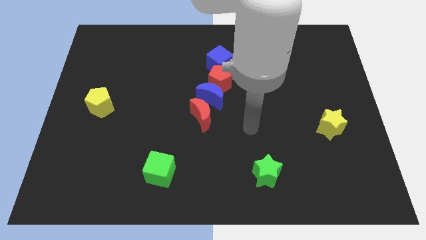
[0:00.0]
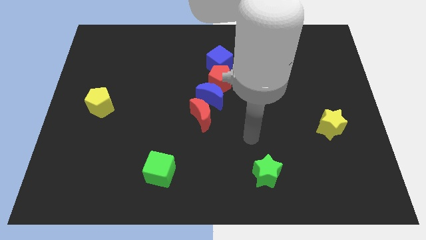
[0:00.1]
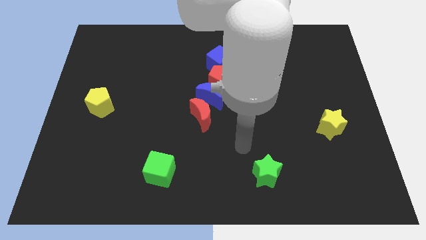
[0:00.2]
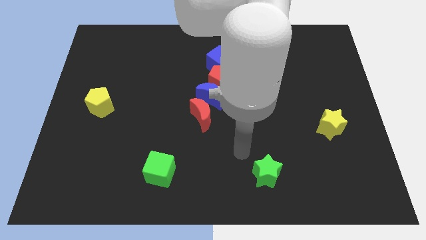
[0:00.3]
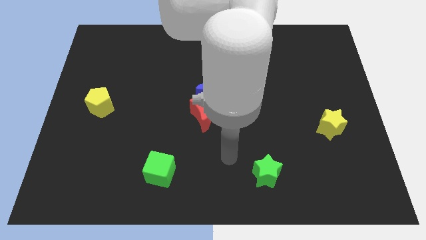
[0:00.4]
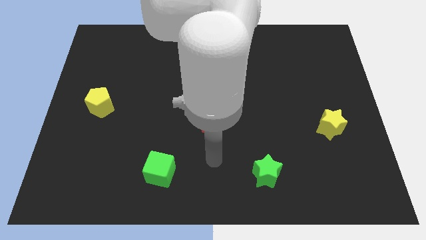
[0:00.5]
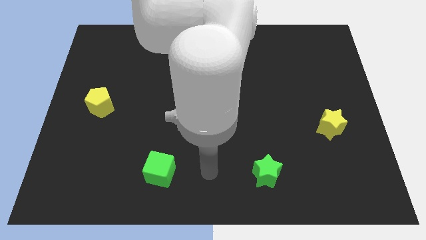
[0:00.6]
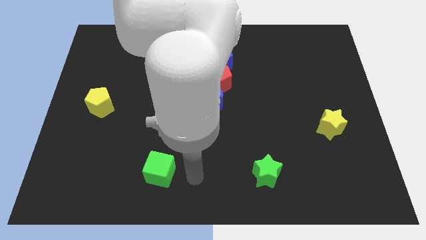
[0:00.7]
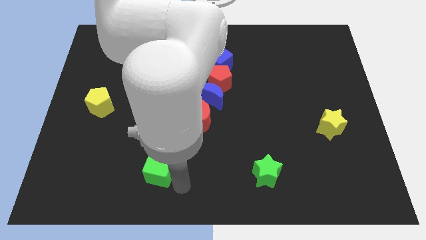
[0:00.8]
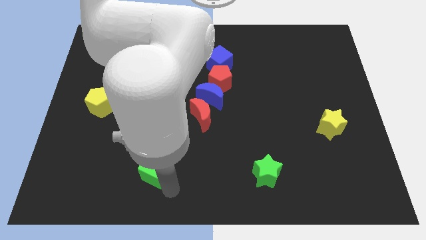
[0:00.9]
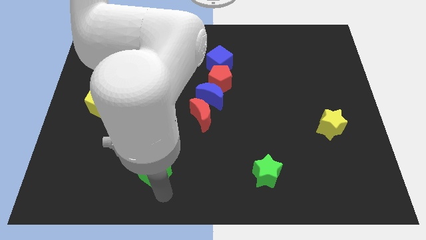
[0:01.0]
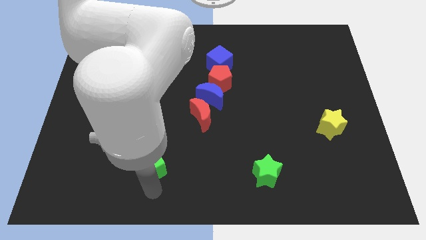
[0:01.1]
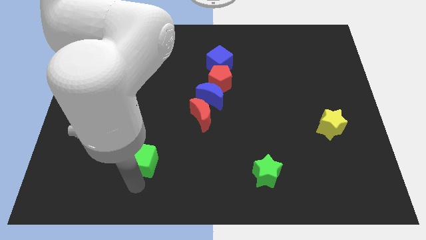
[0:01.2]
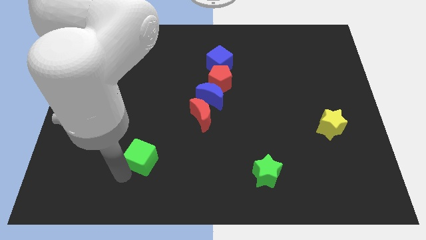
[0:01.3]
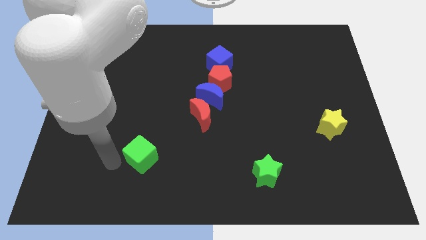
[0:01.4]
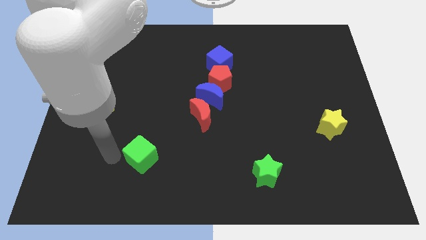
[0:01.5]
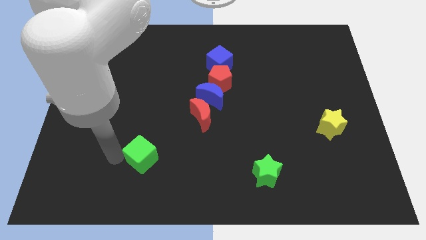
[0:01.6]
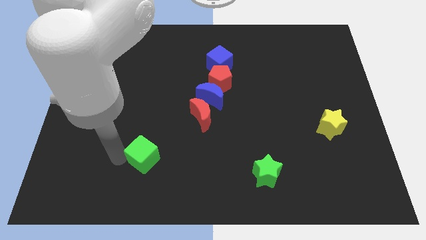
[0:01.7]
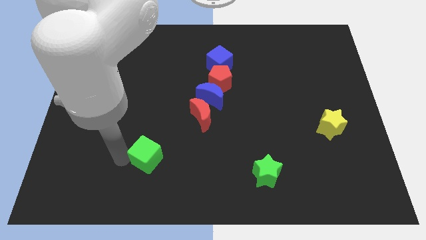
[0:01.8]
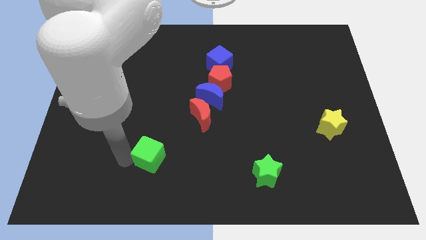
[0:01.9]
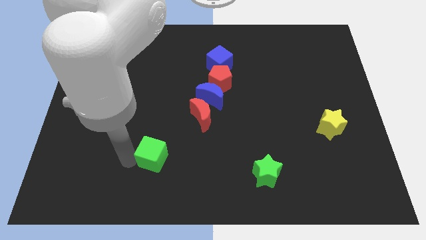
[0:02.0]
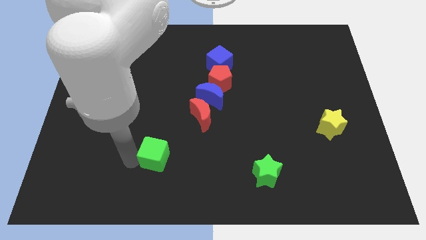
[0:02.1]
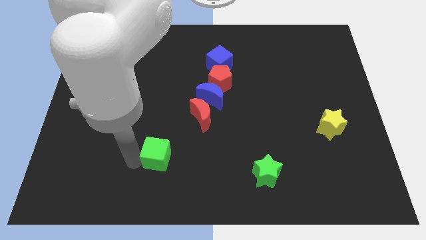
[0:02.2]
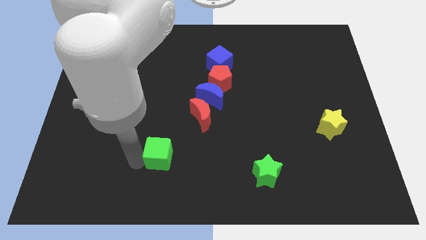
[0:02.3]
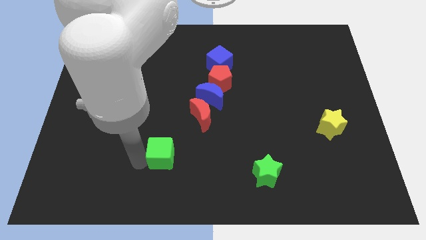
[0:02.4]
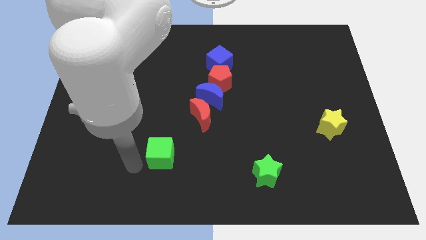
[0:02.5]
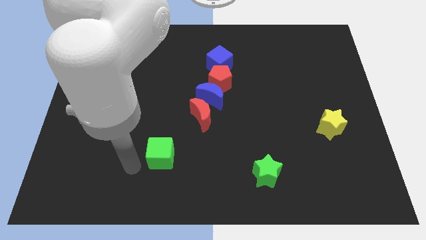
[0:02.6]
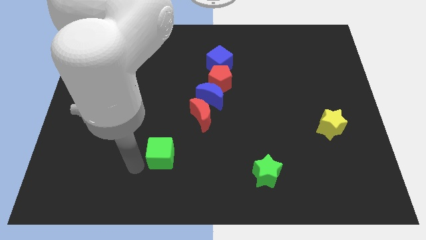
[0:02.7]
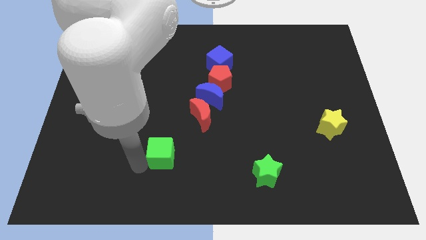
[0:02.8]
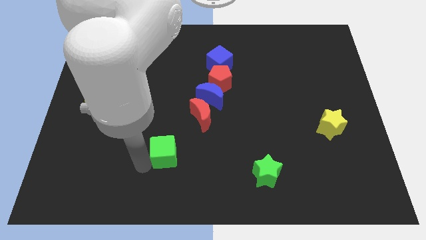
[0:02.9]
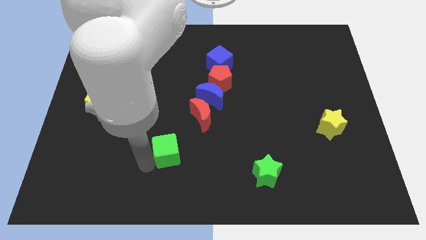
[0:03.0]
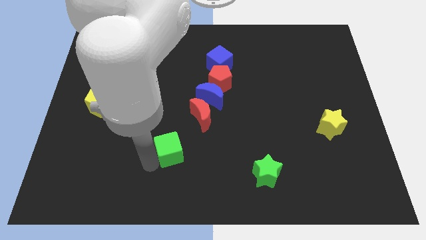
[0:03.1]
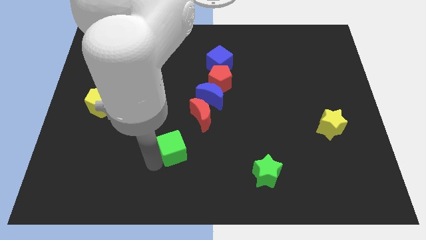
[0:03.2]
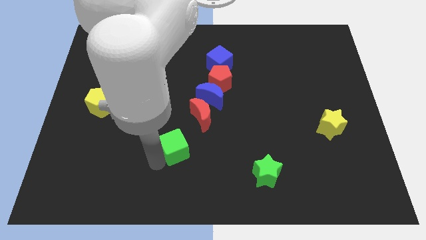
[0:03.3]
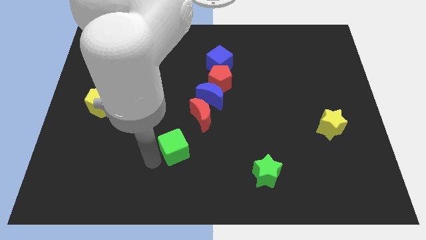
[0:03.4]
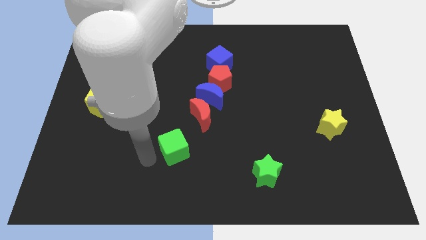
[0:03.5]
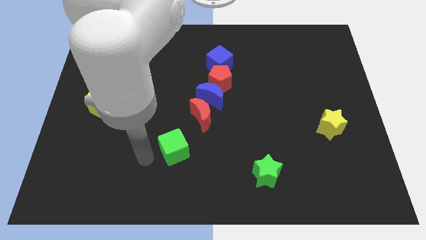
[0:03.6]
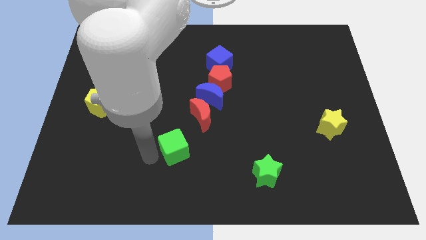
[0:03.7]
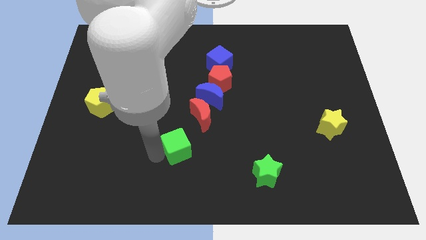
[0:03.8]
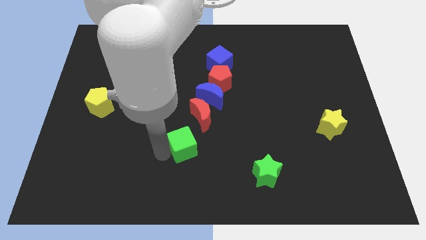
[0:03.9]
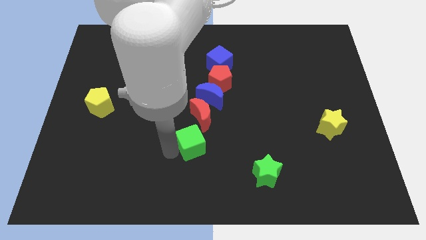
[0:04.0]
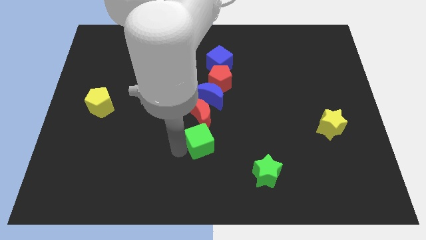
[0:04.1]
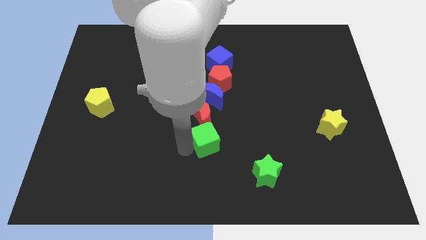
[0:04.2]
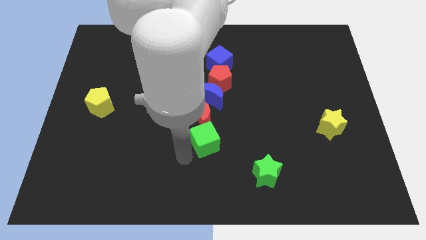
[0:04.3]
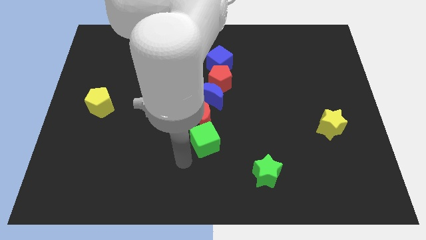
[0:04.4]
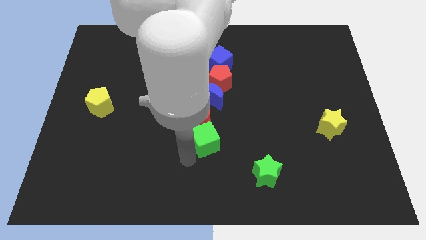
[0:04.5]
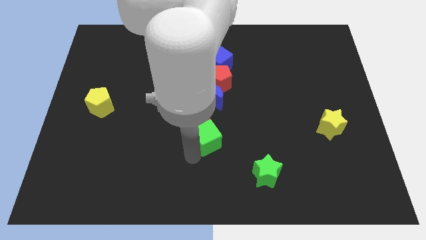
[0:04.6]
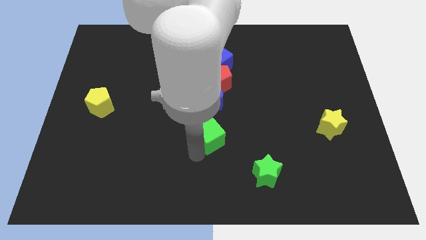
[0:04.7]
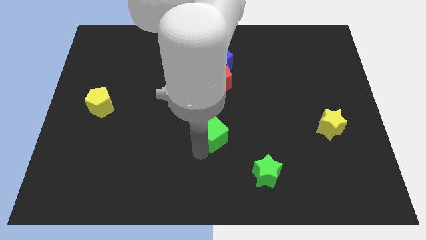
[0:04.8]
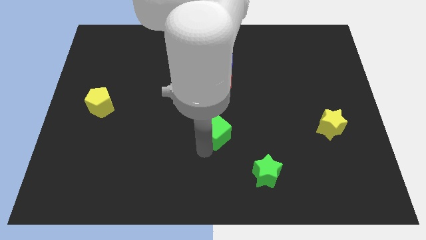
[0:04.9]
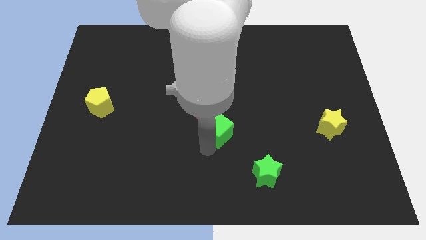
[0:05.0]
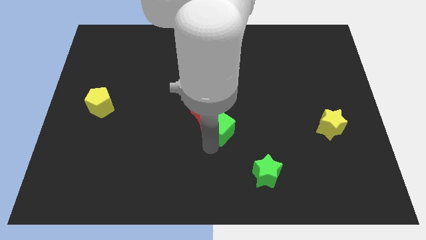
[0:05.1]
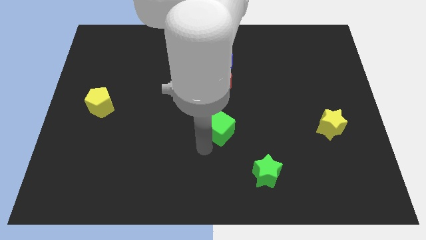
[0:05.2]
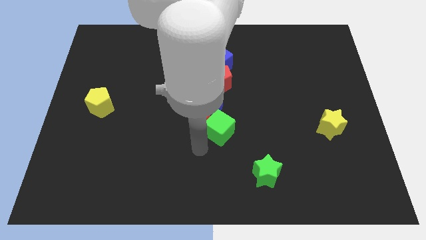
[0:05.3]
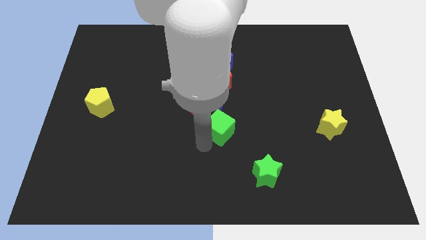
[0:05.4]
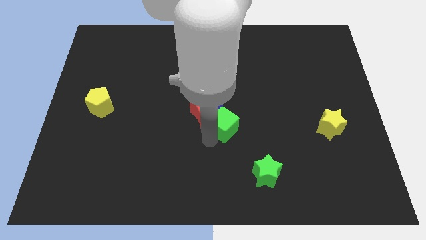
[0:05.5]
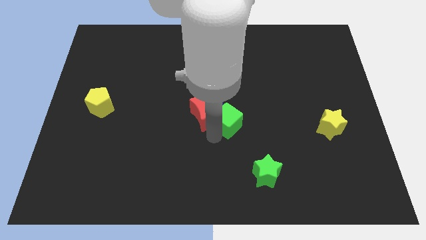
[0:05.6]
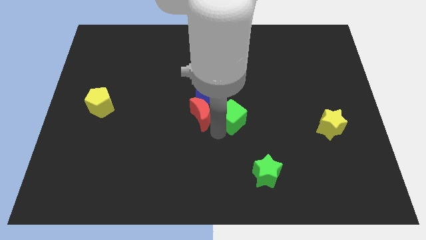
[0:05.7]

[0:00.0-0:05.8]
move the green cube upwards and then to the right

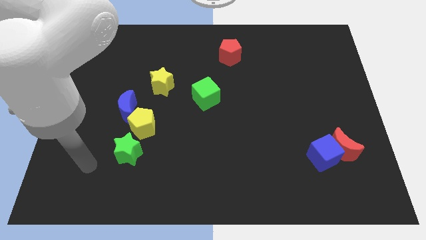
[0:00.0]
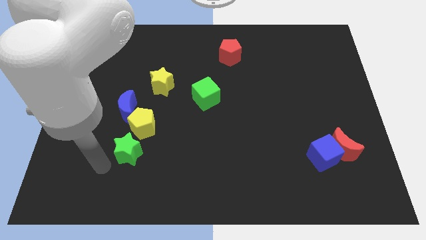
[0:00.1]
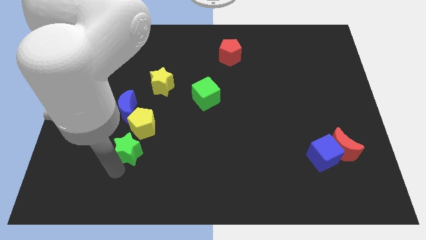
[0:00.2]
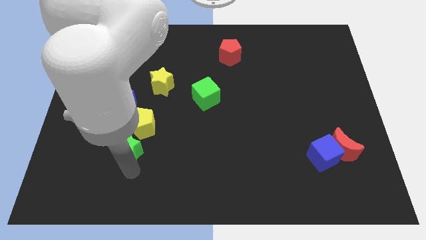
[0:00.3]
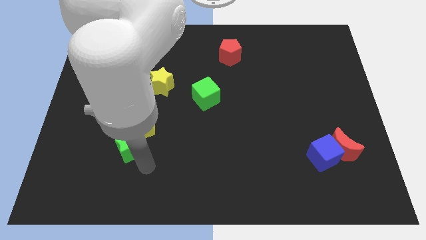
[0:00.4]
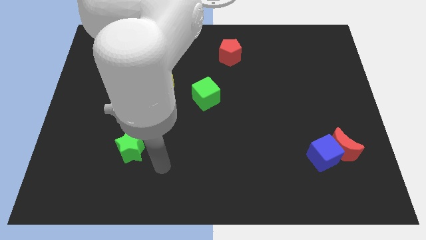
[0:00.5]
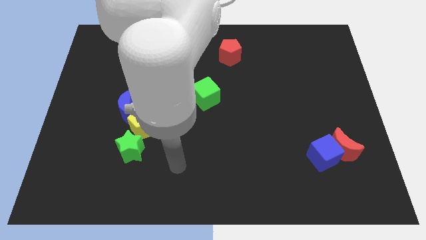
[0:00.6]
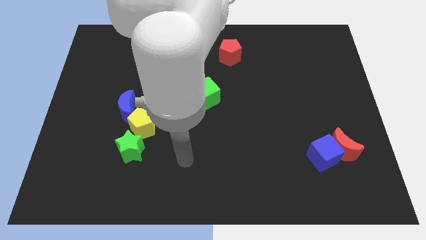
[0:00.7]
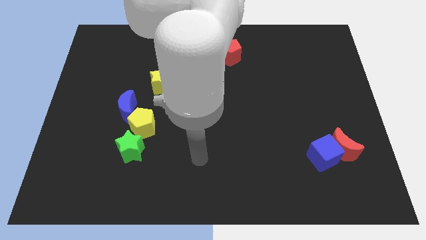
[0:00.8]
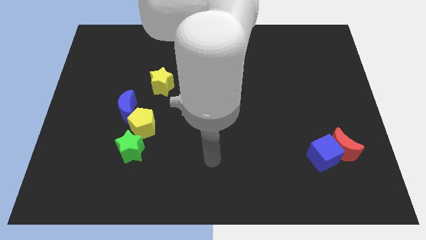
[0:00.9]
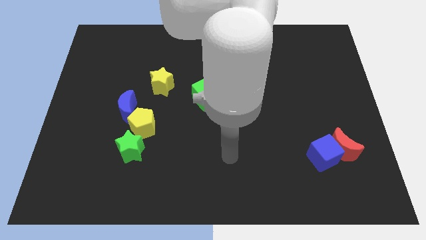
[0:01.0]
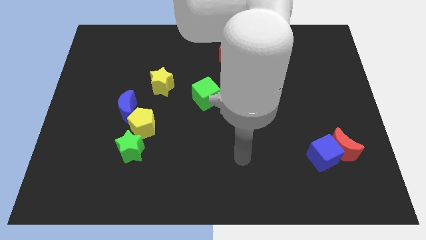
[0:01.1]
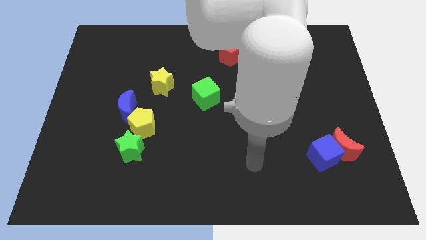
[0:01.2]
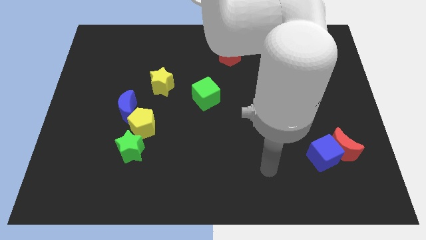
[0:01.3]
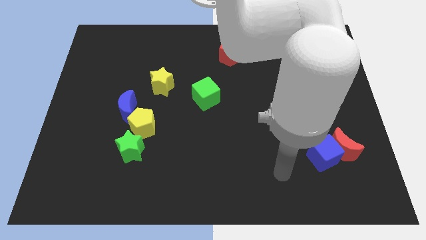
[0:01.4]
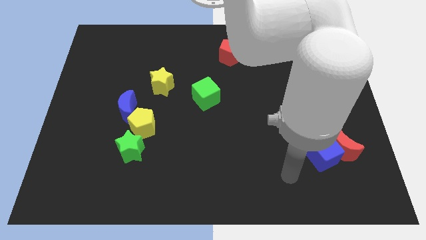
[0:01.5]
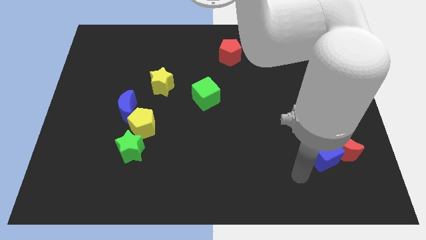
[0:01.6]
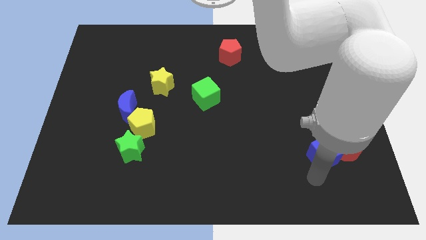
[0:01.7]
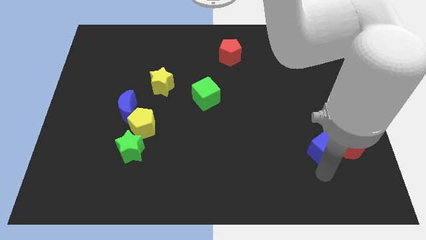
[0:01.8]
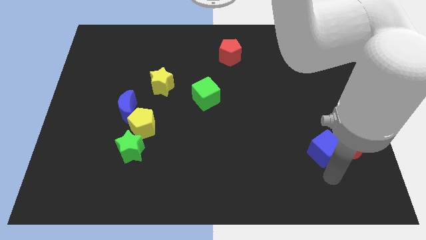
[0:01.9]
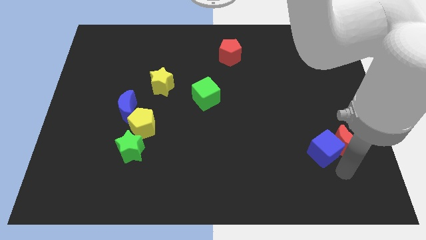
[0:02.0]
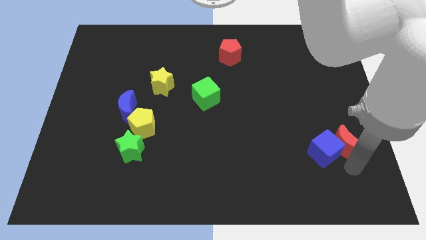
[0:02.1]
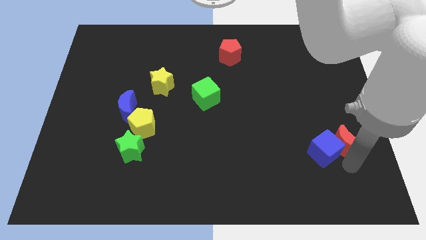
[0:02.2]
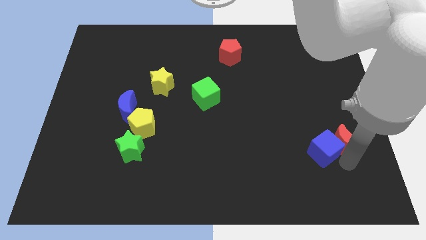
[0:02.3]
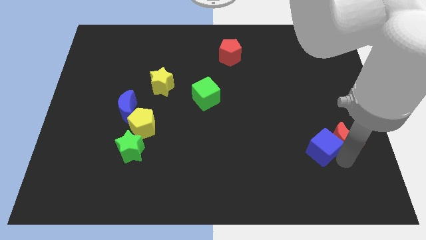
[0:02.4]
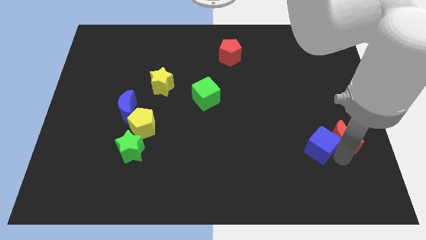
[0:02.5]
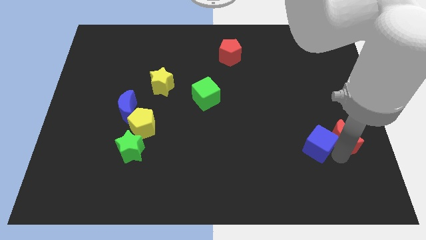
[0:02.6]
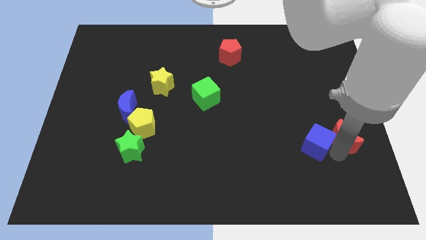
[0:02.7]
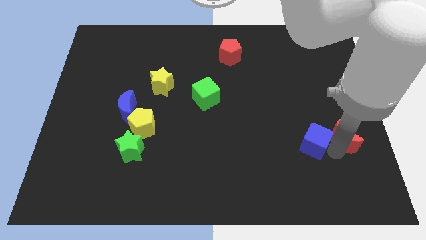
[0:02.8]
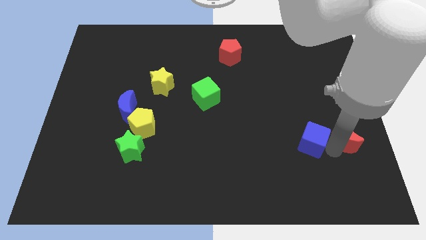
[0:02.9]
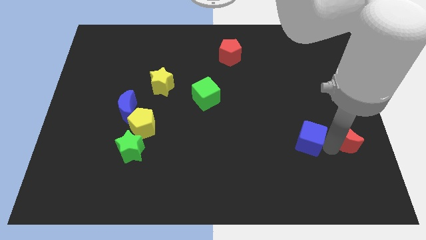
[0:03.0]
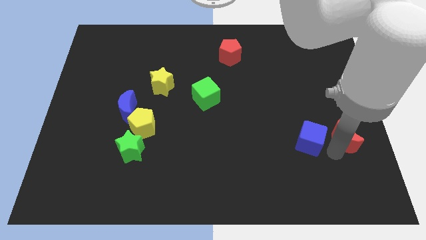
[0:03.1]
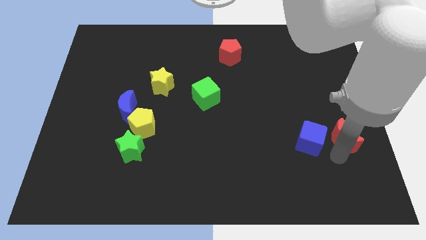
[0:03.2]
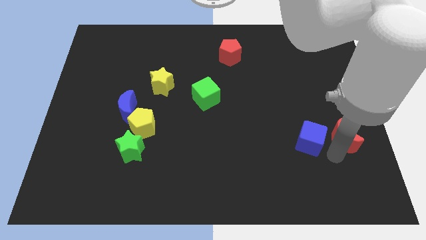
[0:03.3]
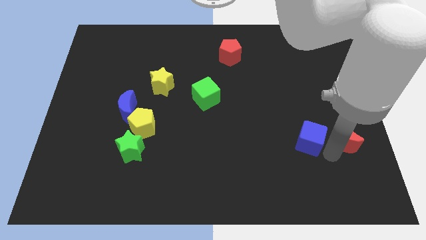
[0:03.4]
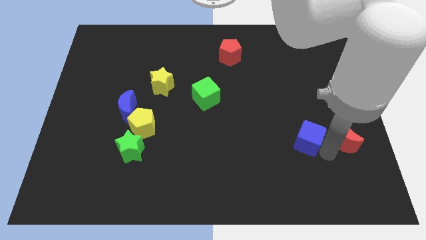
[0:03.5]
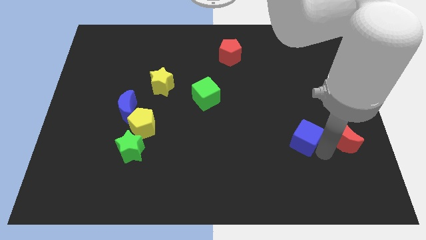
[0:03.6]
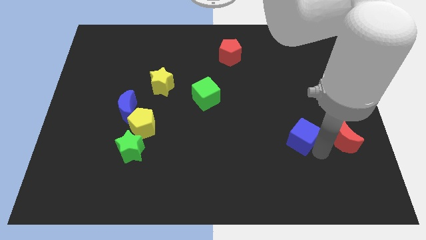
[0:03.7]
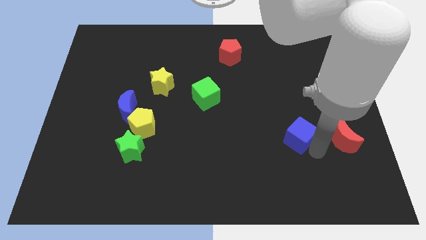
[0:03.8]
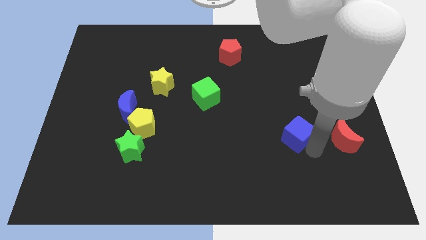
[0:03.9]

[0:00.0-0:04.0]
move the blue cube slightly up and left
